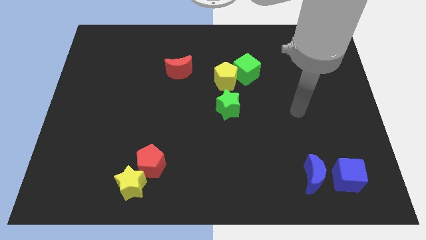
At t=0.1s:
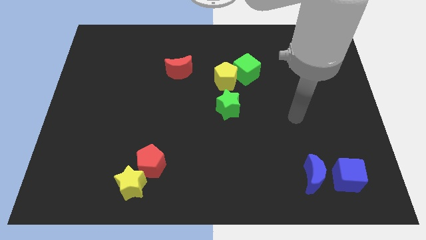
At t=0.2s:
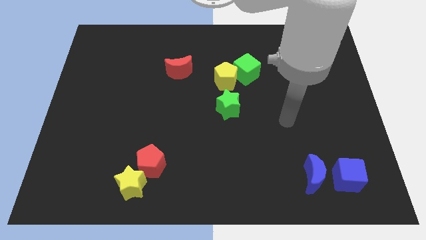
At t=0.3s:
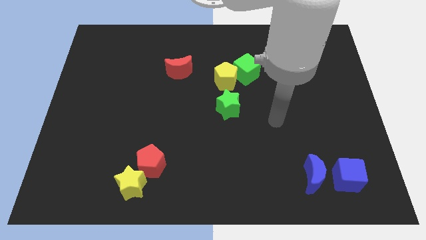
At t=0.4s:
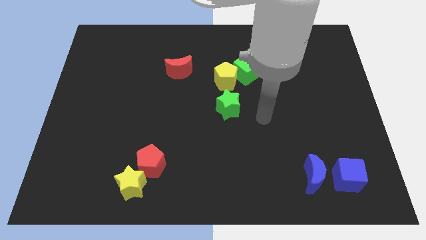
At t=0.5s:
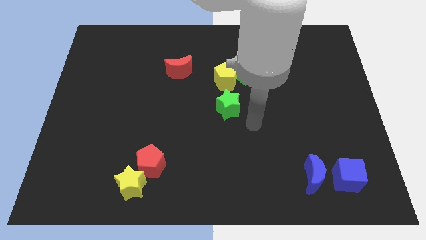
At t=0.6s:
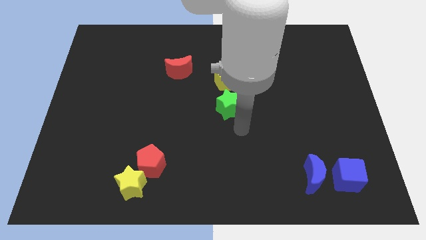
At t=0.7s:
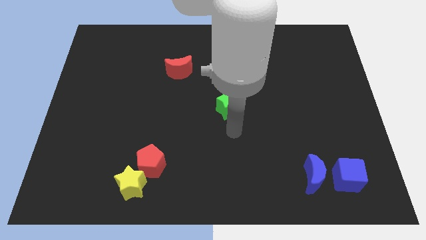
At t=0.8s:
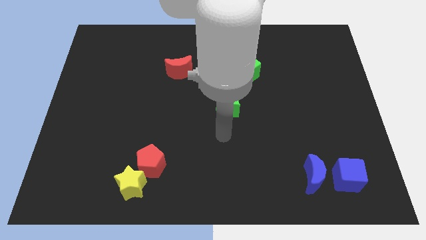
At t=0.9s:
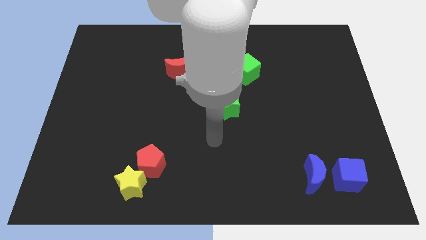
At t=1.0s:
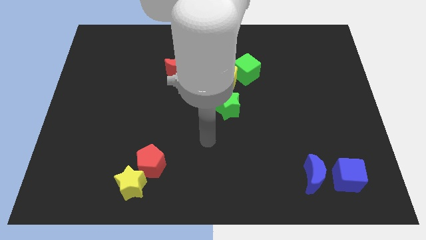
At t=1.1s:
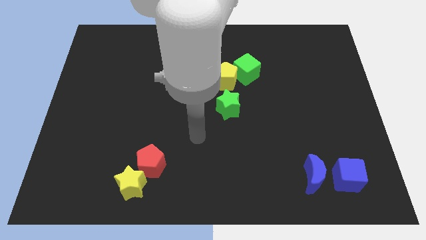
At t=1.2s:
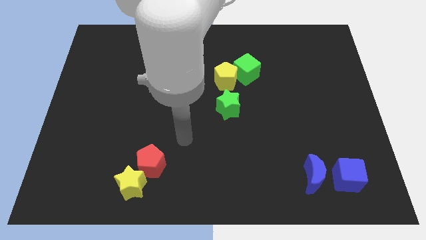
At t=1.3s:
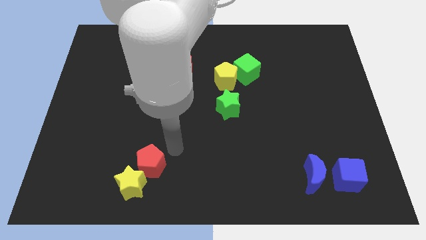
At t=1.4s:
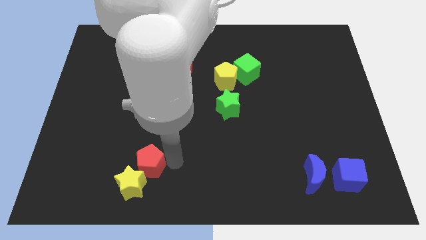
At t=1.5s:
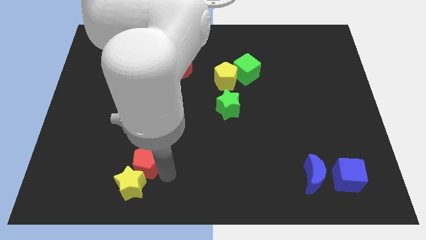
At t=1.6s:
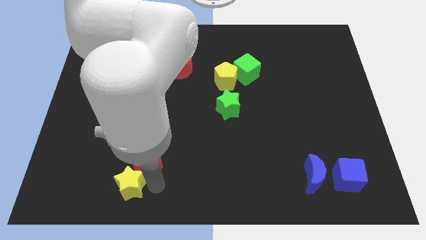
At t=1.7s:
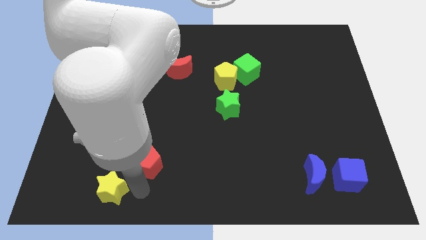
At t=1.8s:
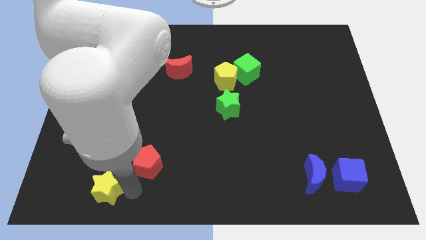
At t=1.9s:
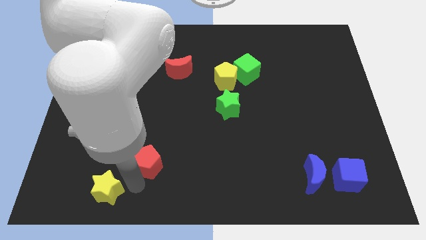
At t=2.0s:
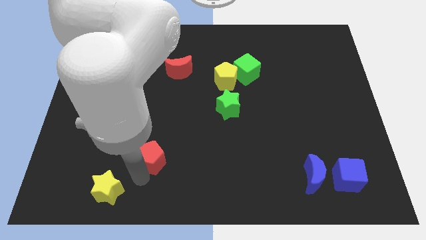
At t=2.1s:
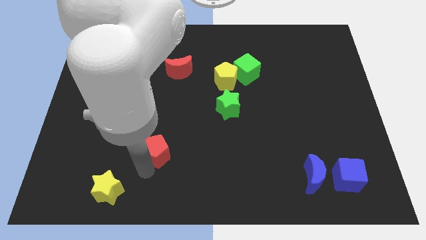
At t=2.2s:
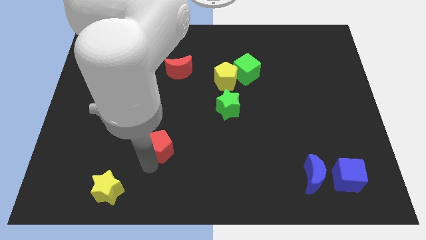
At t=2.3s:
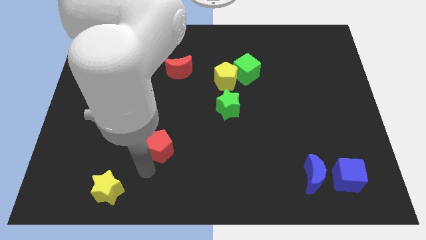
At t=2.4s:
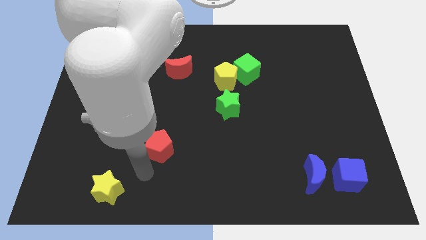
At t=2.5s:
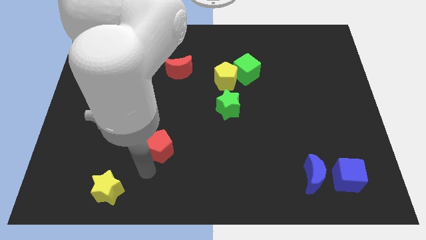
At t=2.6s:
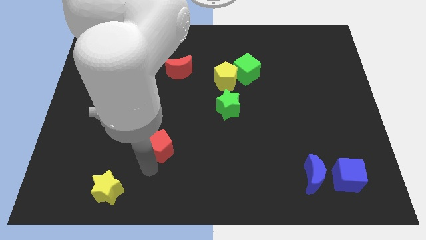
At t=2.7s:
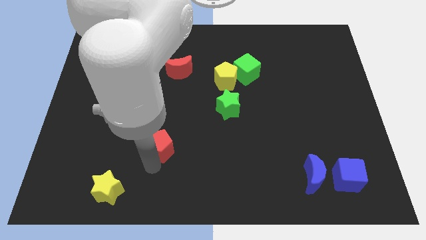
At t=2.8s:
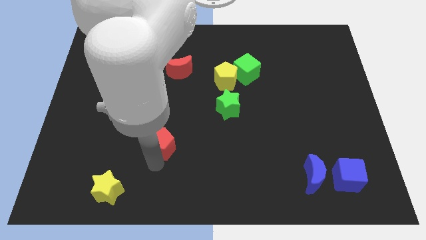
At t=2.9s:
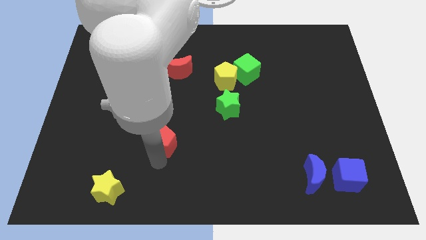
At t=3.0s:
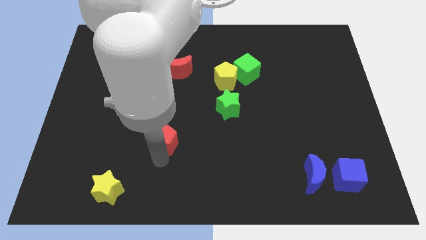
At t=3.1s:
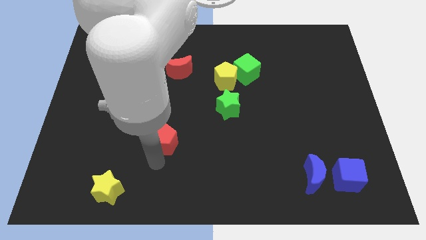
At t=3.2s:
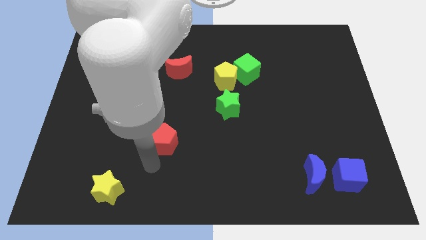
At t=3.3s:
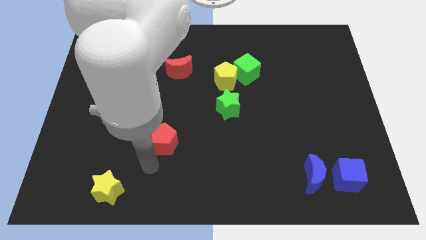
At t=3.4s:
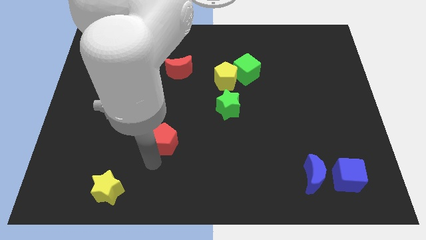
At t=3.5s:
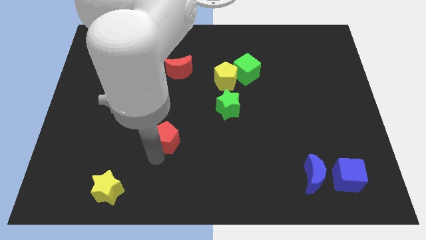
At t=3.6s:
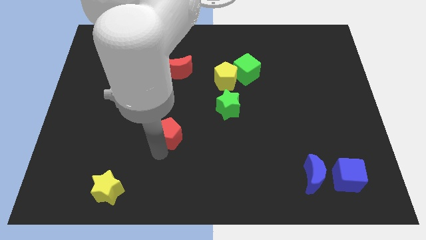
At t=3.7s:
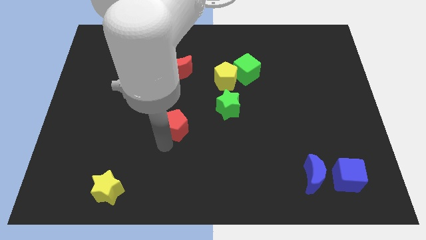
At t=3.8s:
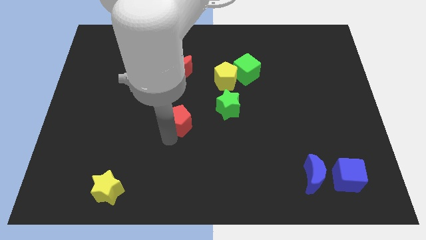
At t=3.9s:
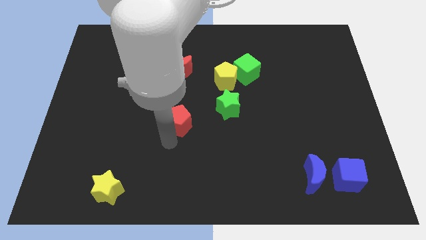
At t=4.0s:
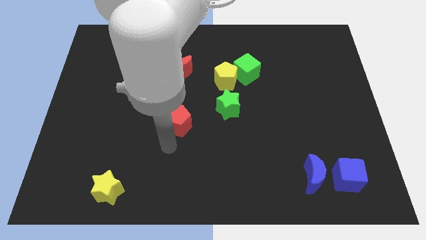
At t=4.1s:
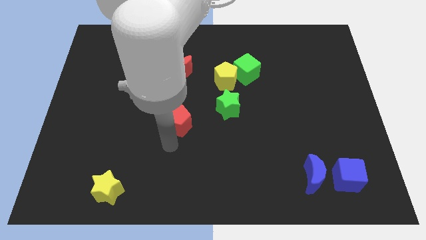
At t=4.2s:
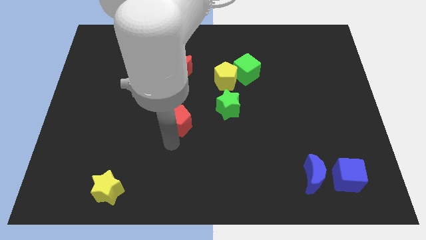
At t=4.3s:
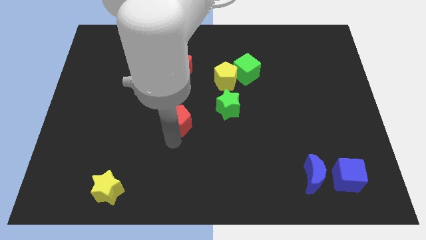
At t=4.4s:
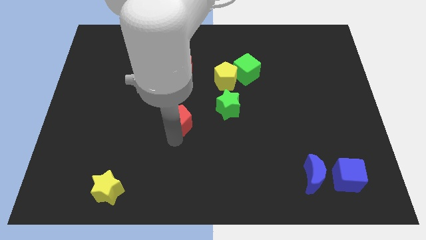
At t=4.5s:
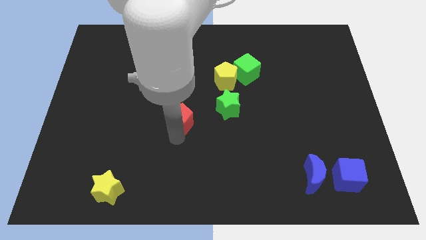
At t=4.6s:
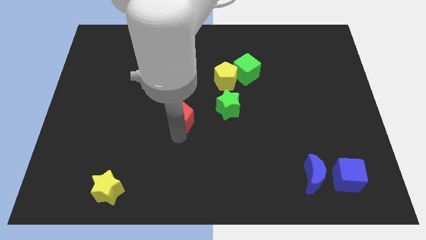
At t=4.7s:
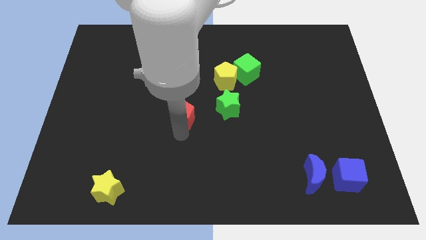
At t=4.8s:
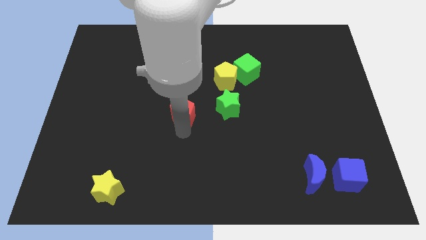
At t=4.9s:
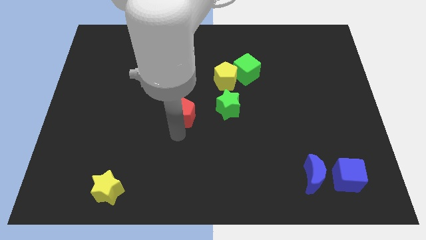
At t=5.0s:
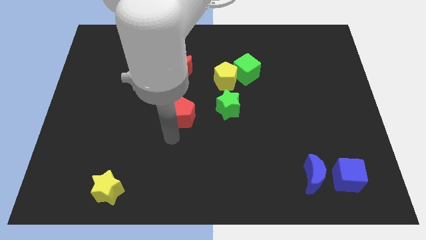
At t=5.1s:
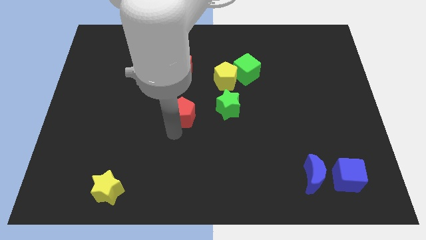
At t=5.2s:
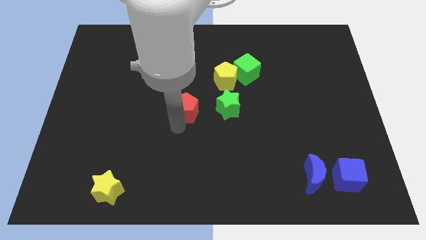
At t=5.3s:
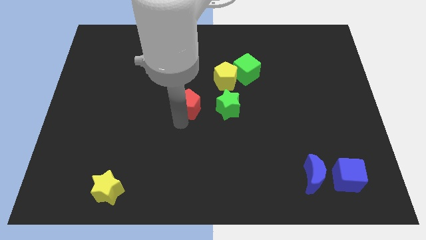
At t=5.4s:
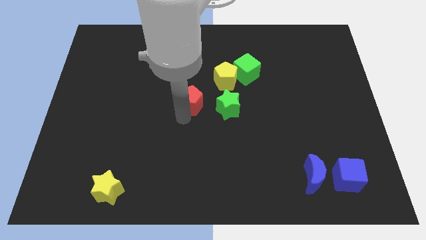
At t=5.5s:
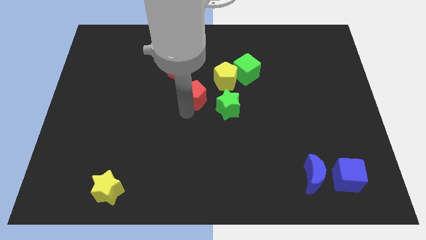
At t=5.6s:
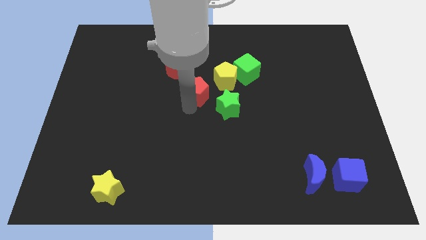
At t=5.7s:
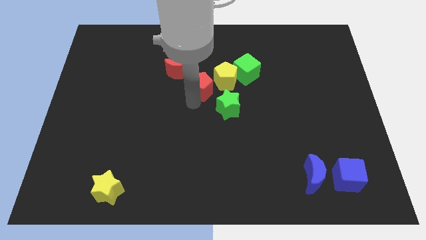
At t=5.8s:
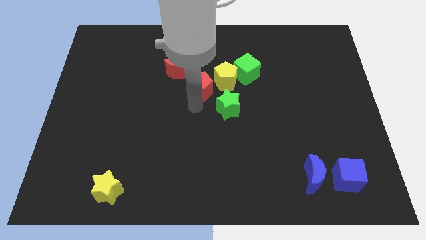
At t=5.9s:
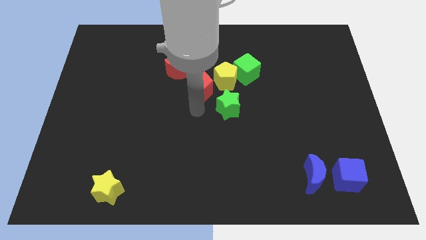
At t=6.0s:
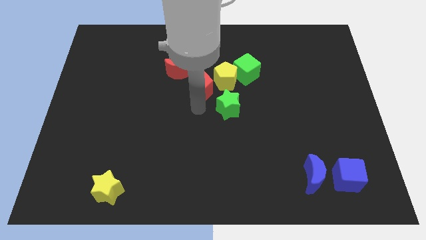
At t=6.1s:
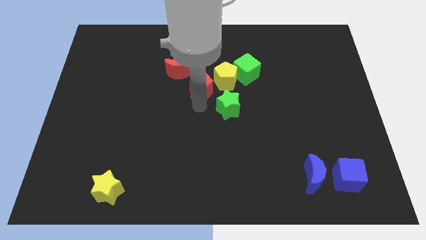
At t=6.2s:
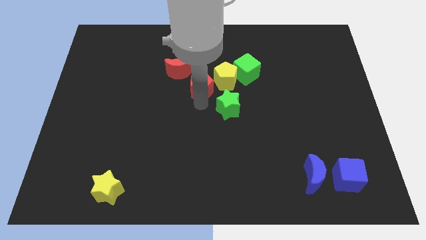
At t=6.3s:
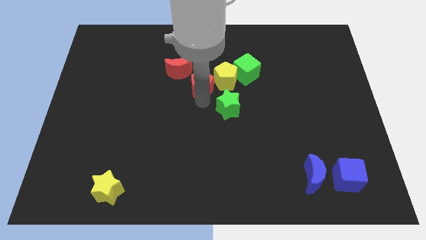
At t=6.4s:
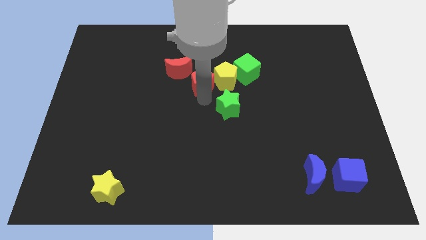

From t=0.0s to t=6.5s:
move the red pentagon to the left side of the green cube

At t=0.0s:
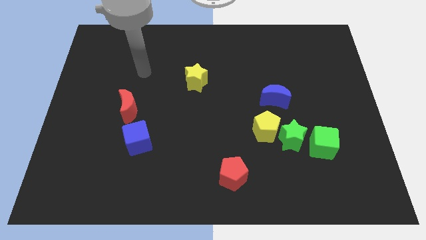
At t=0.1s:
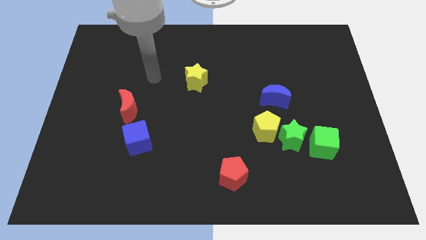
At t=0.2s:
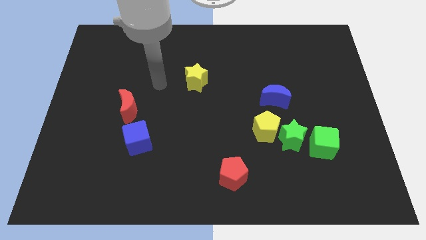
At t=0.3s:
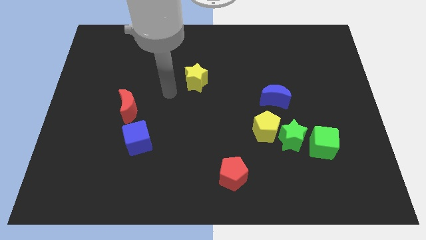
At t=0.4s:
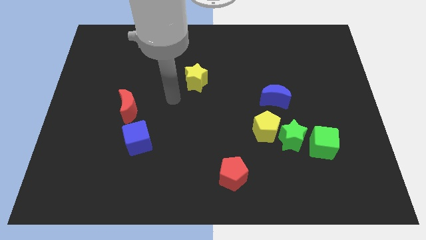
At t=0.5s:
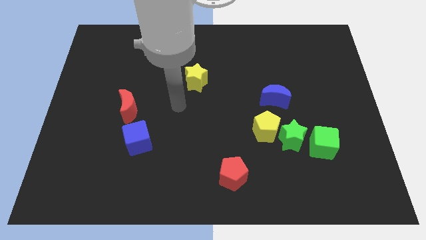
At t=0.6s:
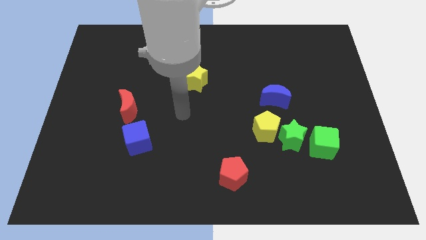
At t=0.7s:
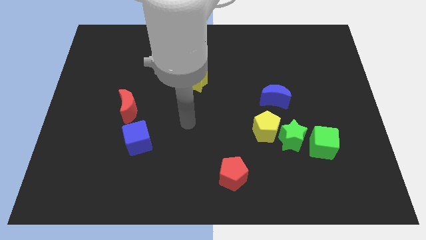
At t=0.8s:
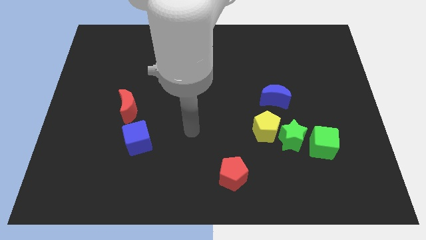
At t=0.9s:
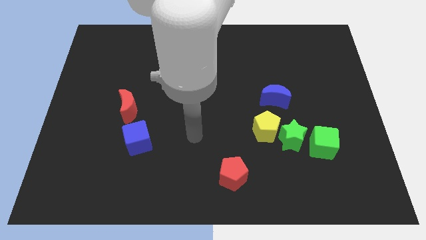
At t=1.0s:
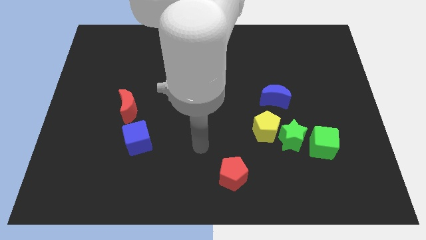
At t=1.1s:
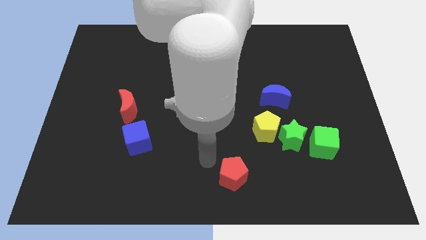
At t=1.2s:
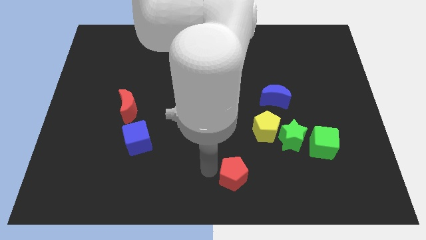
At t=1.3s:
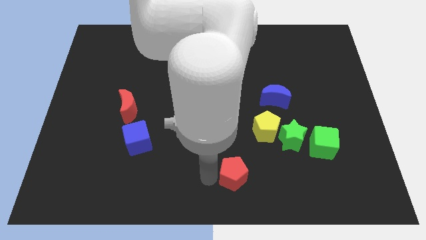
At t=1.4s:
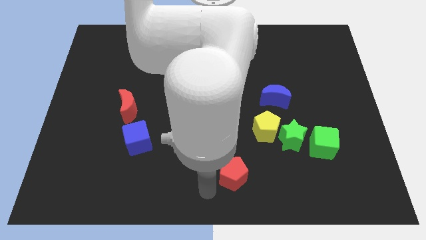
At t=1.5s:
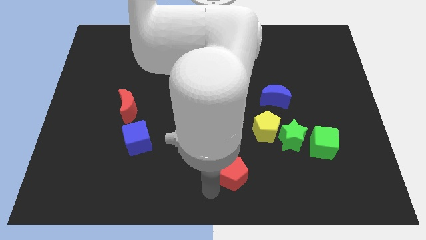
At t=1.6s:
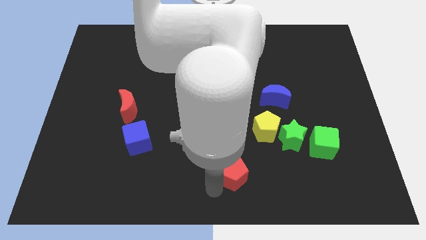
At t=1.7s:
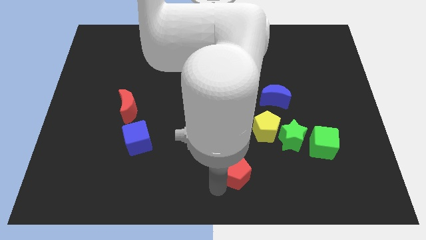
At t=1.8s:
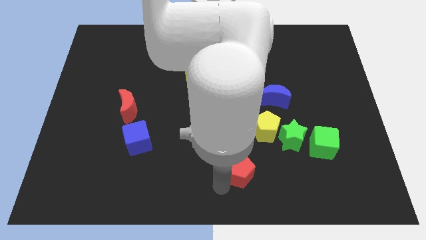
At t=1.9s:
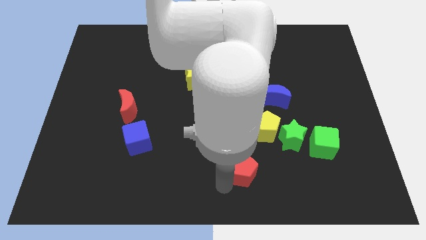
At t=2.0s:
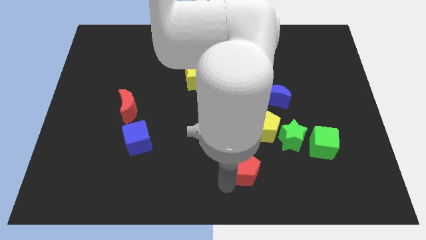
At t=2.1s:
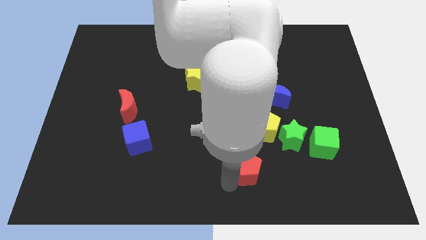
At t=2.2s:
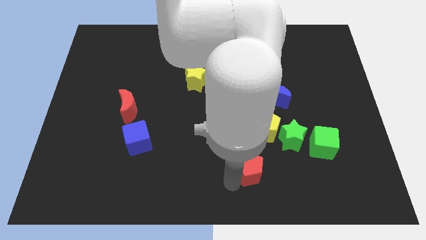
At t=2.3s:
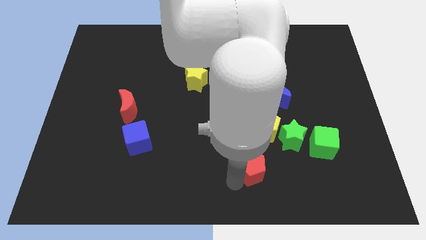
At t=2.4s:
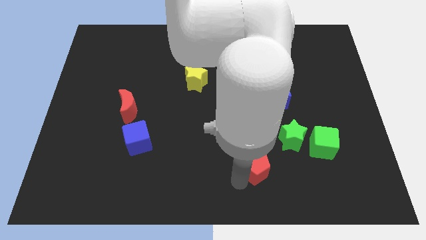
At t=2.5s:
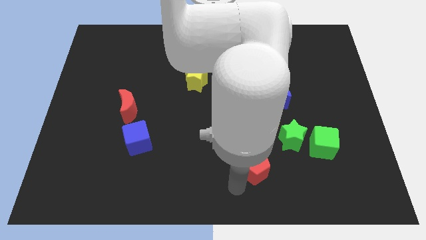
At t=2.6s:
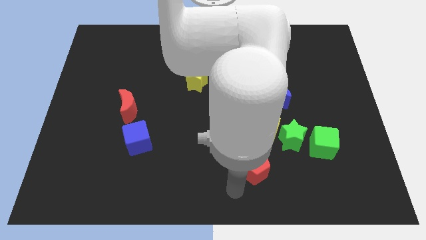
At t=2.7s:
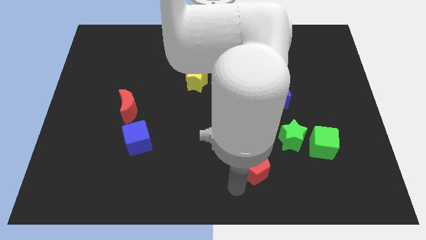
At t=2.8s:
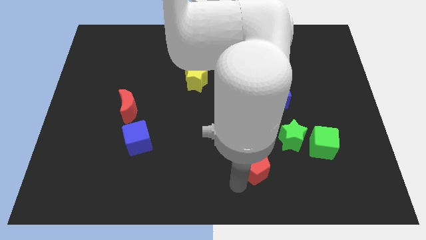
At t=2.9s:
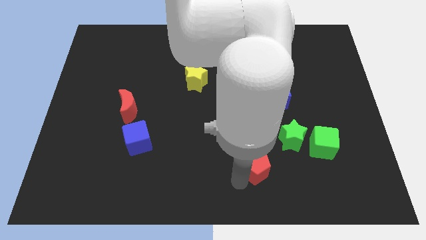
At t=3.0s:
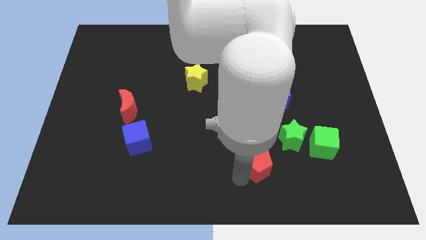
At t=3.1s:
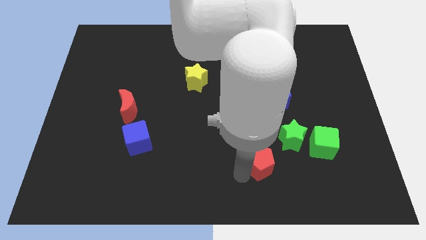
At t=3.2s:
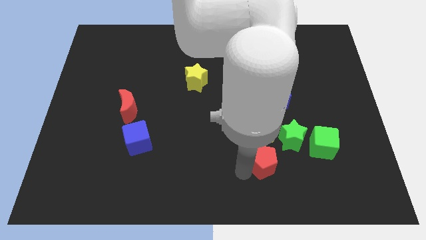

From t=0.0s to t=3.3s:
put the red pentagon left of the green cube
